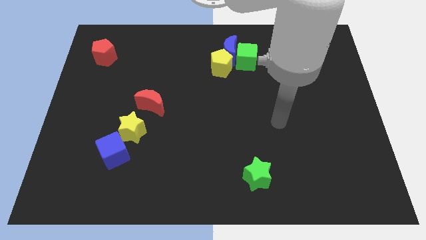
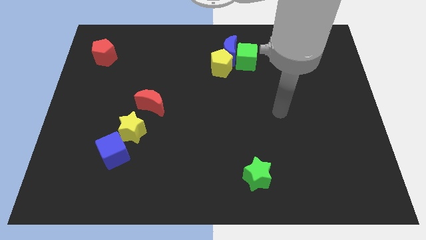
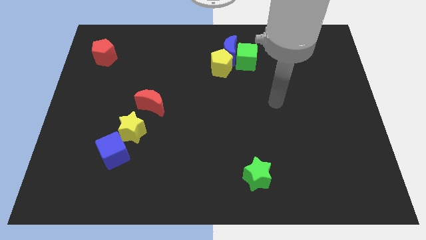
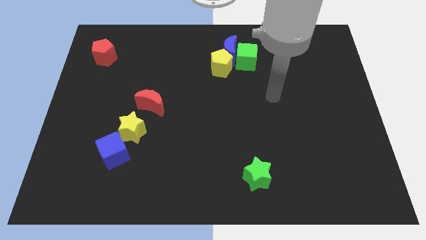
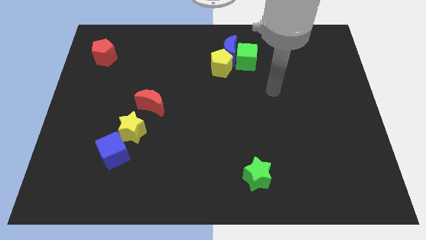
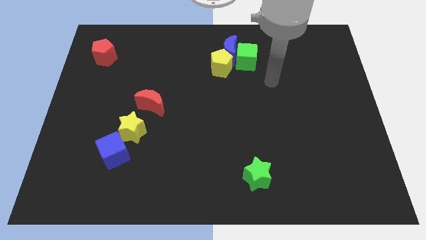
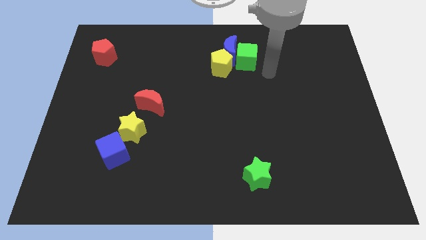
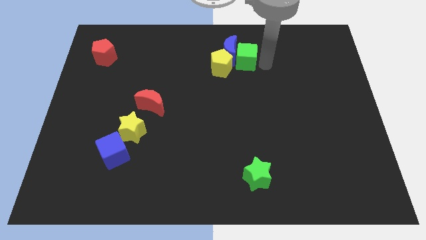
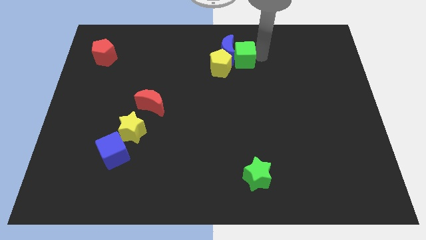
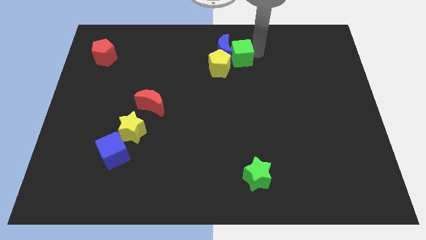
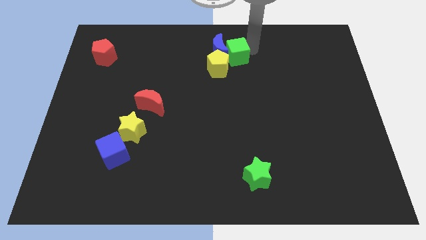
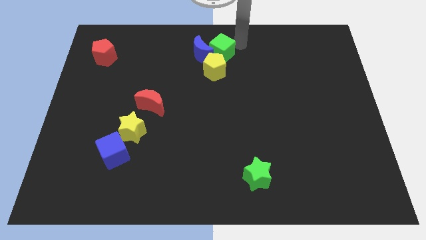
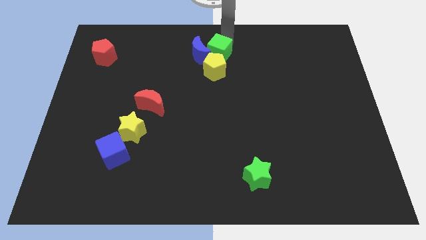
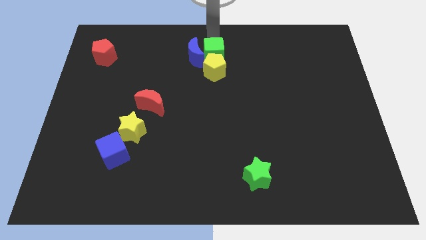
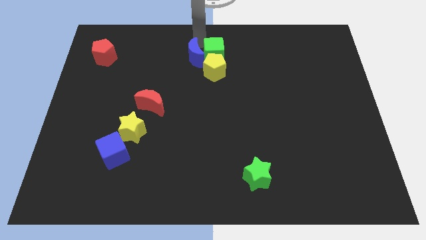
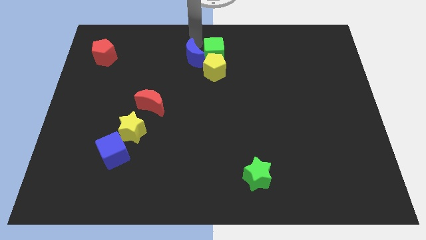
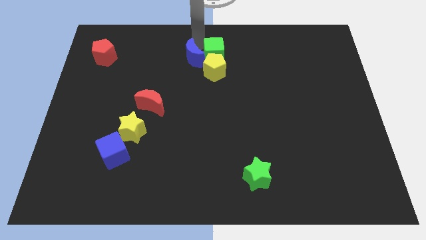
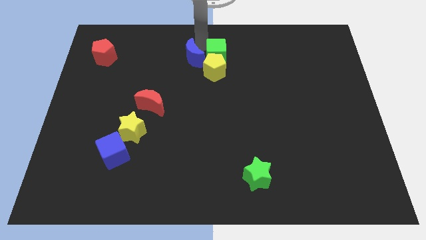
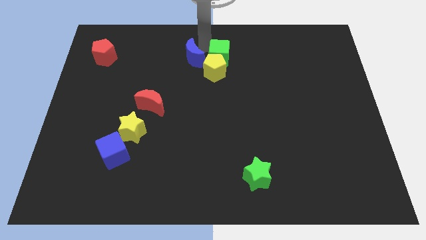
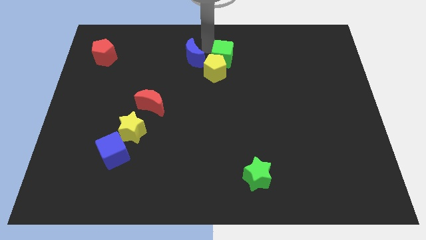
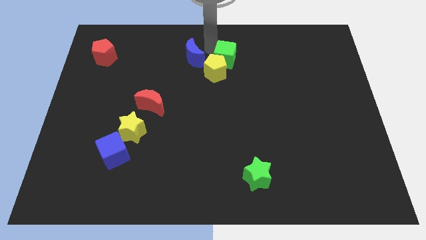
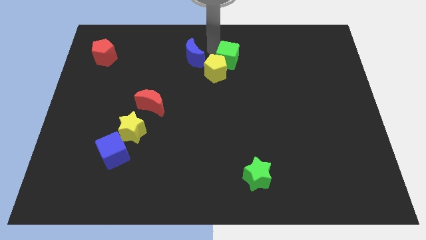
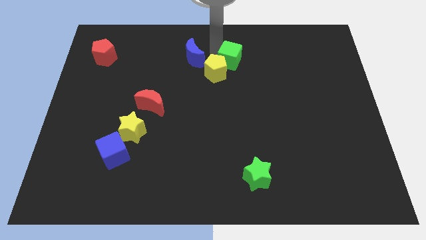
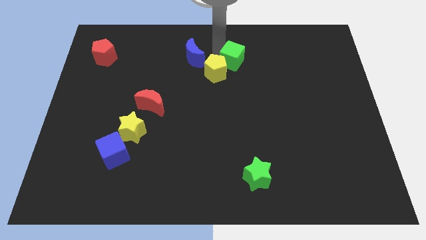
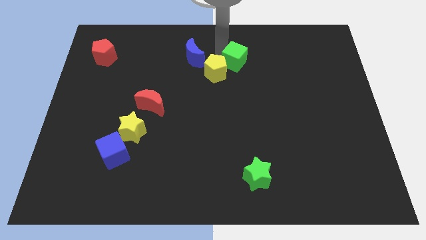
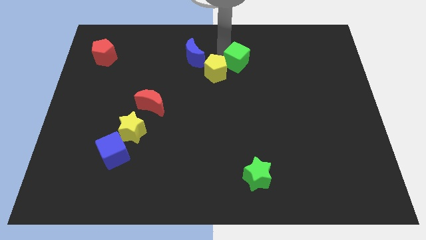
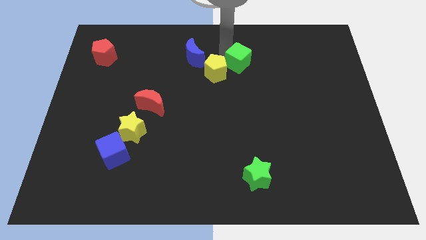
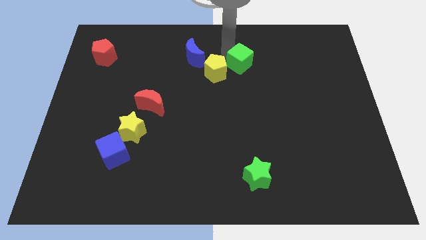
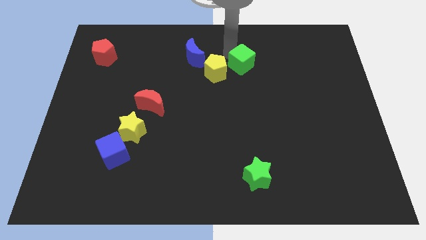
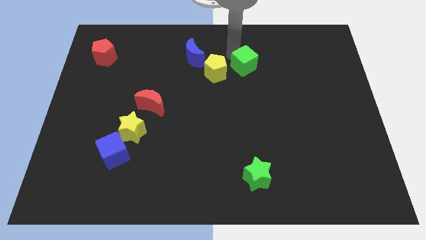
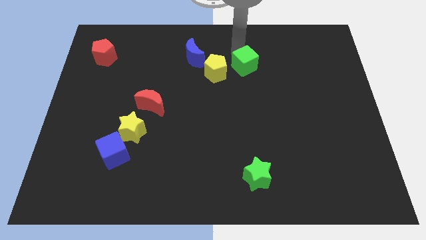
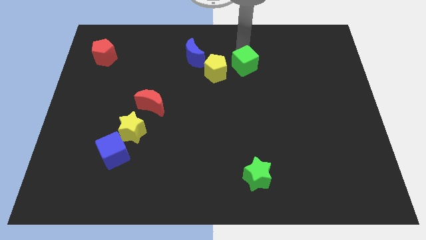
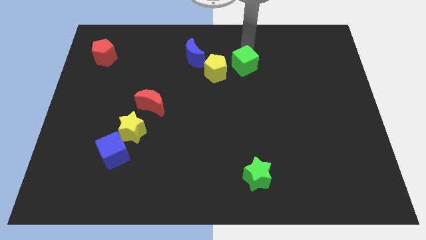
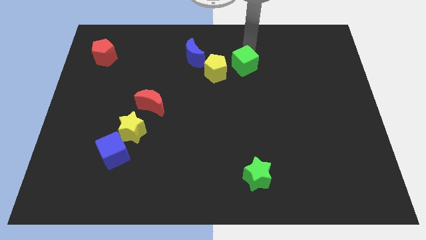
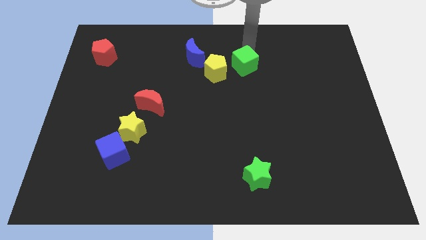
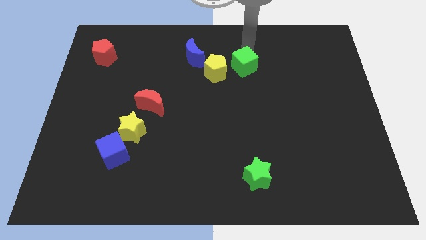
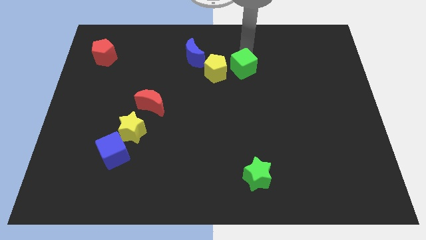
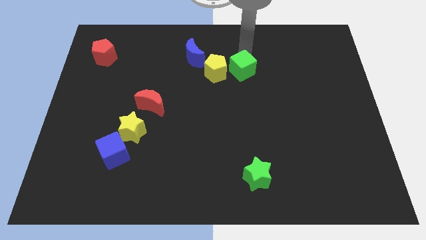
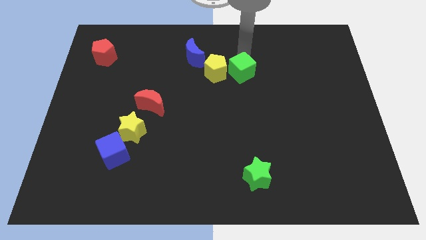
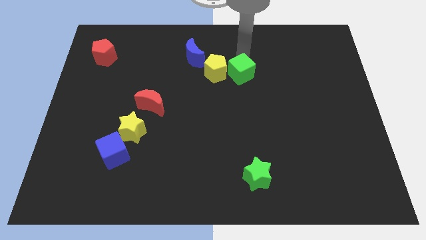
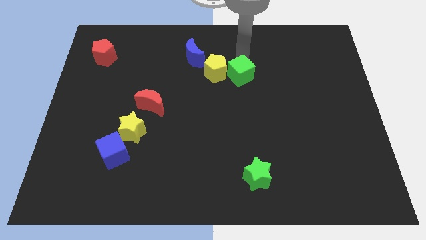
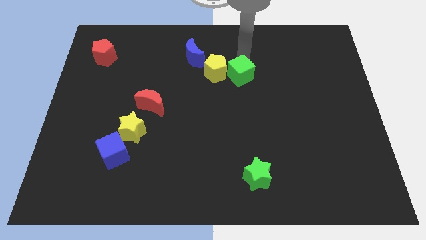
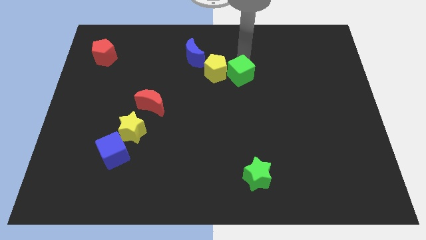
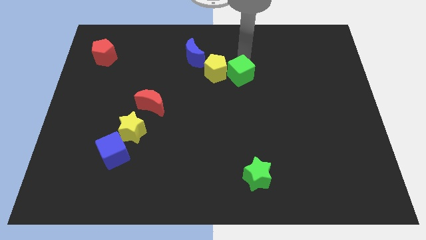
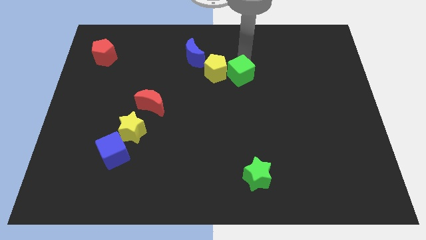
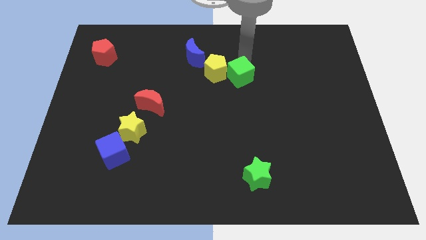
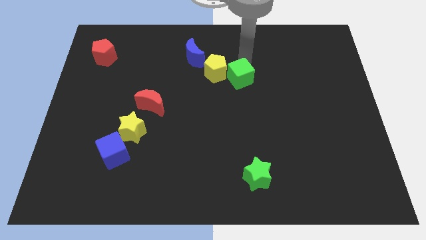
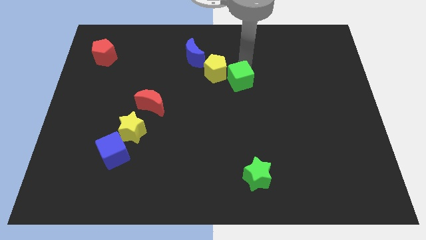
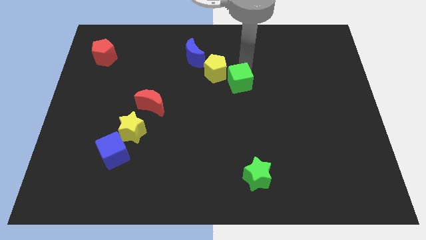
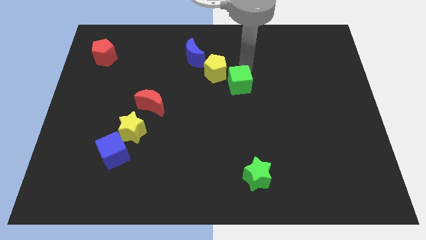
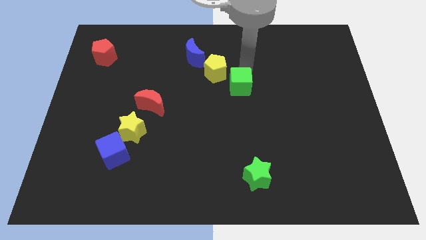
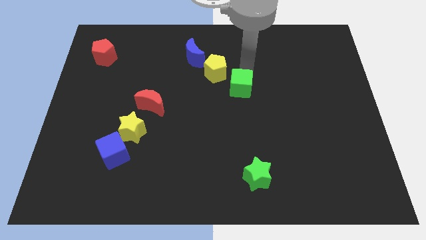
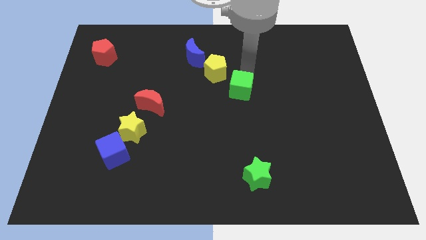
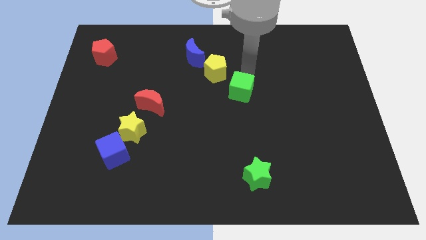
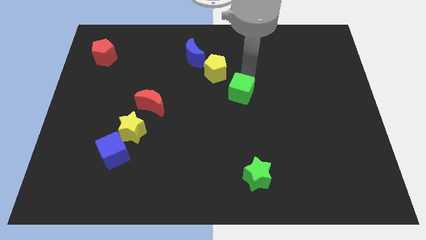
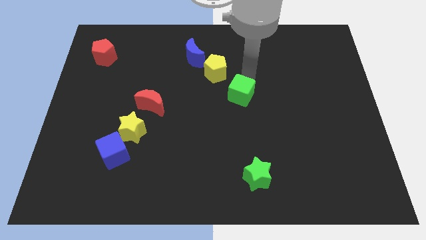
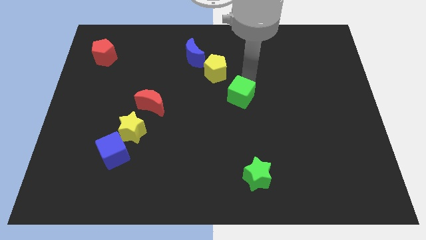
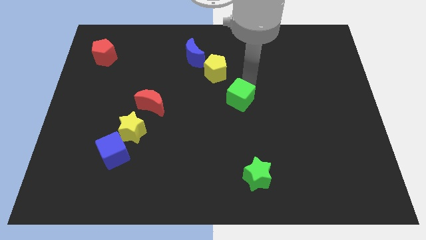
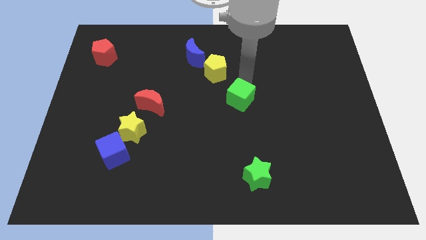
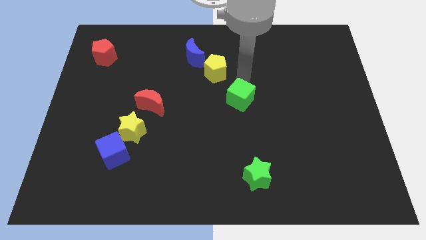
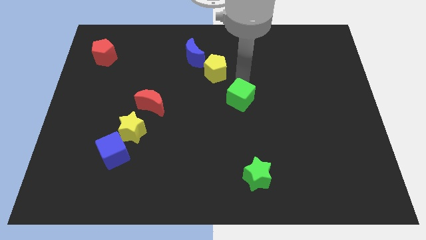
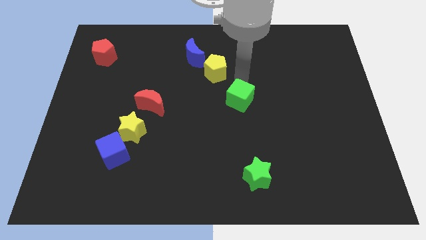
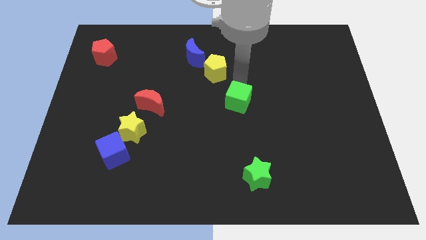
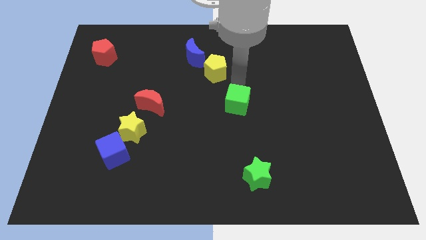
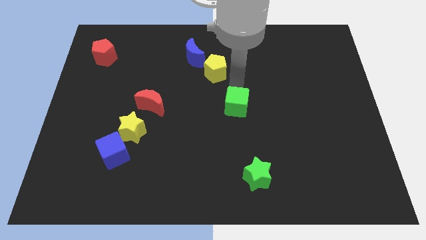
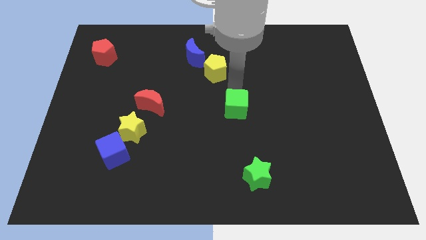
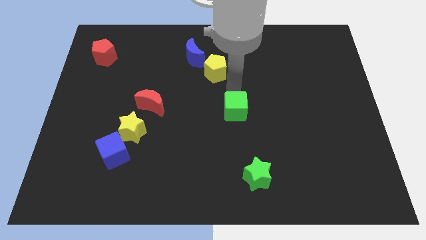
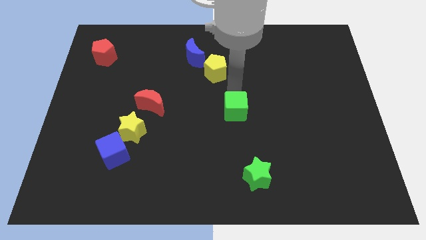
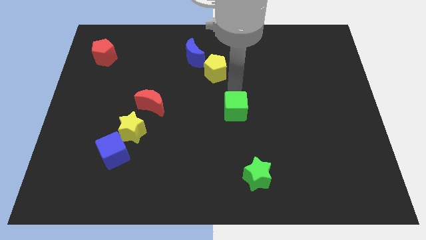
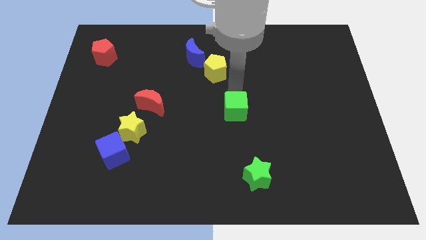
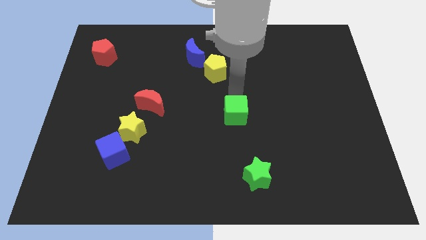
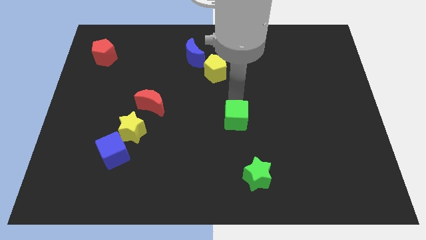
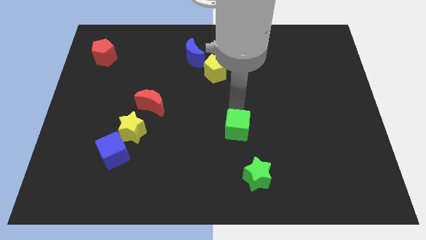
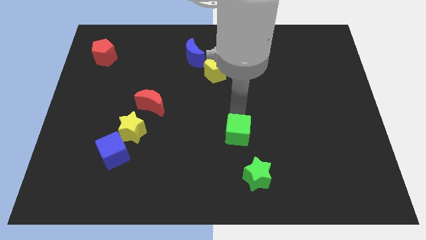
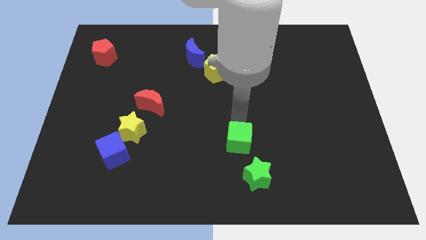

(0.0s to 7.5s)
move the green cube diagonally up and to the left of the green star
